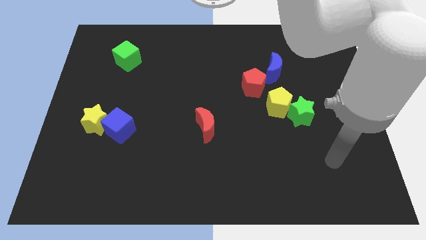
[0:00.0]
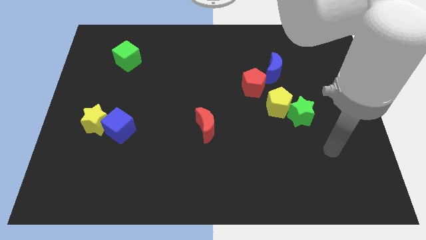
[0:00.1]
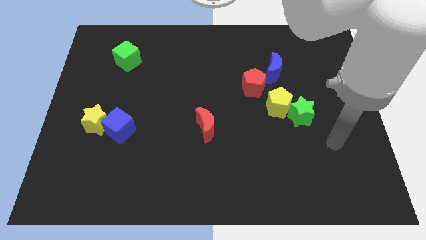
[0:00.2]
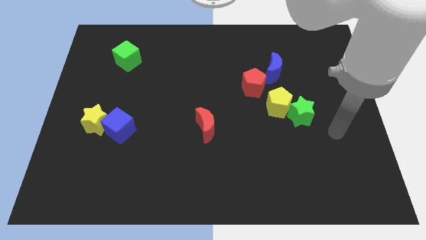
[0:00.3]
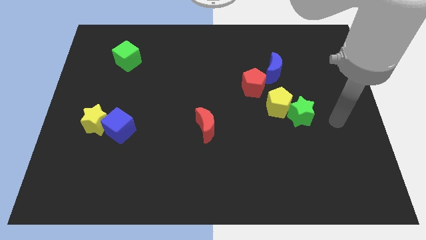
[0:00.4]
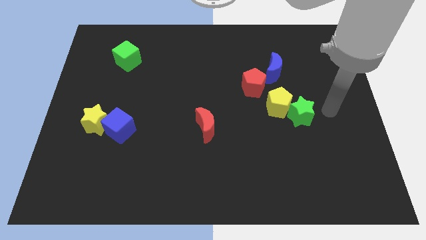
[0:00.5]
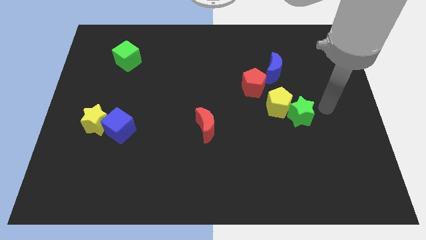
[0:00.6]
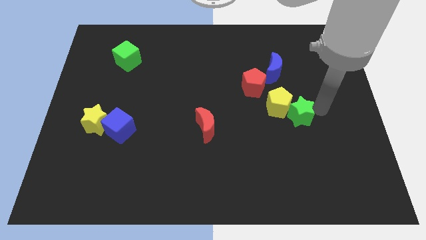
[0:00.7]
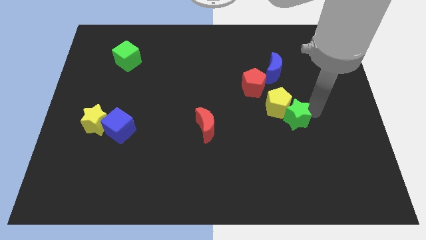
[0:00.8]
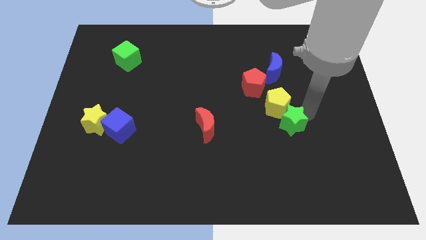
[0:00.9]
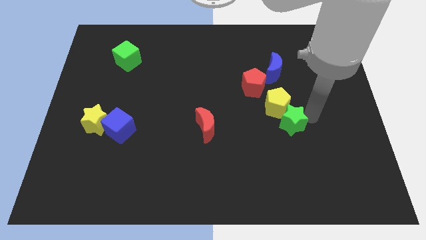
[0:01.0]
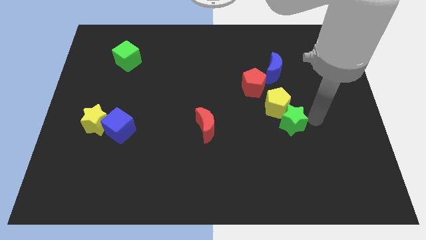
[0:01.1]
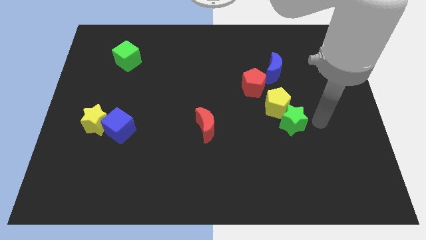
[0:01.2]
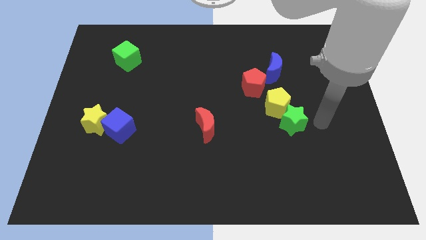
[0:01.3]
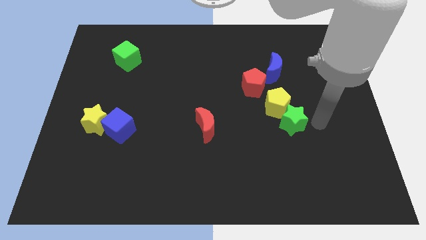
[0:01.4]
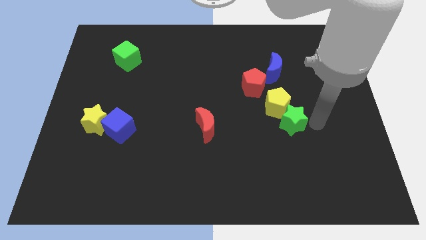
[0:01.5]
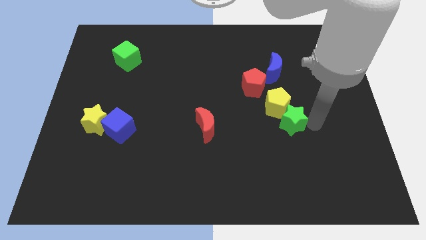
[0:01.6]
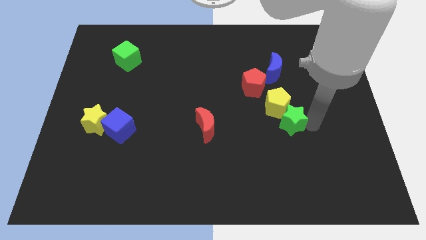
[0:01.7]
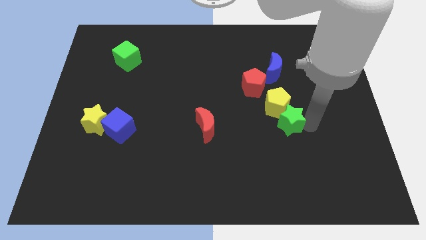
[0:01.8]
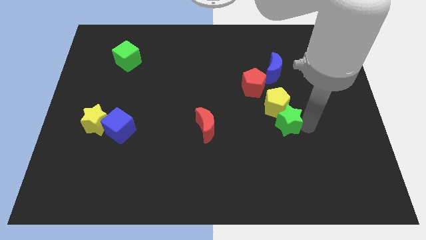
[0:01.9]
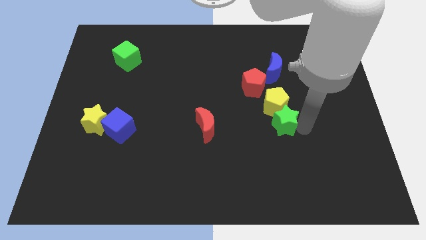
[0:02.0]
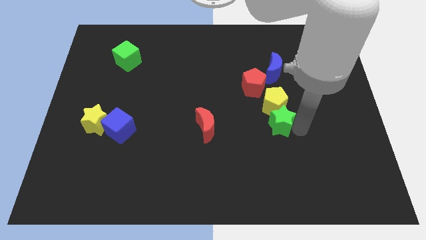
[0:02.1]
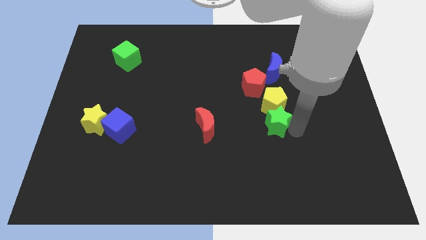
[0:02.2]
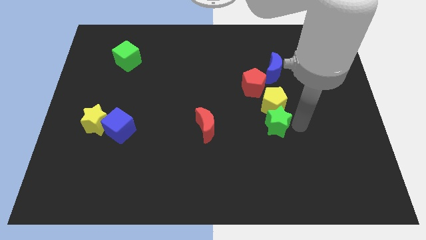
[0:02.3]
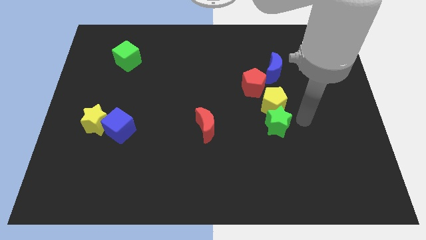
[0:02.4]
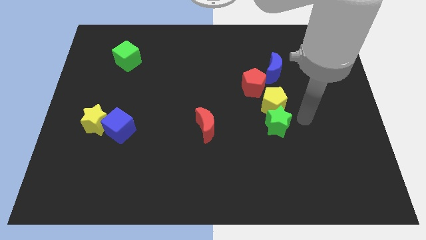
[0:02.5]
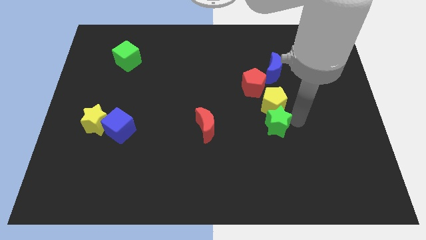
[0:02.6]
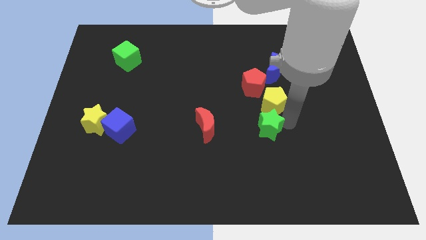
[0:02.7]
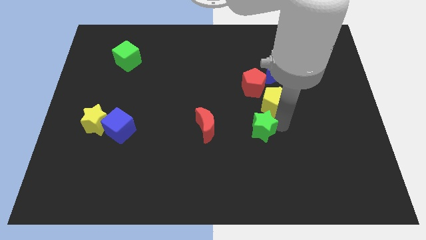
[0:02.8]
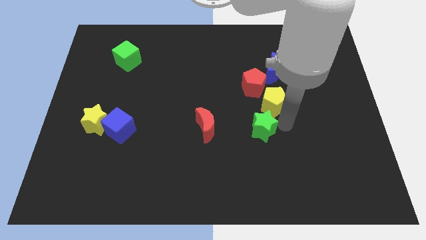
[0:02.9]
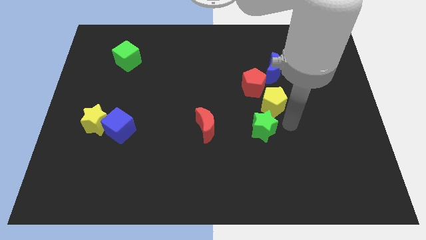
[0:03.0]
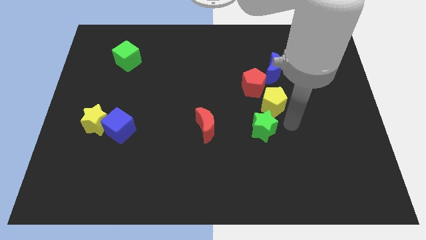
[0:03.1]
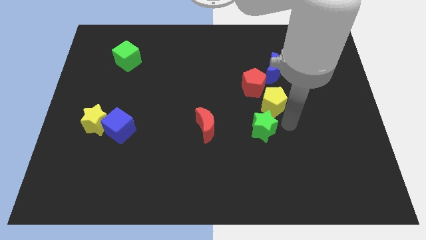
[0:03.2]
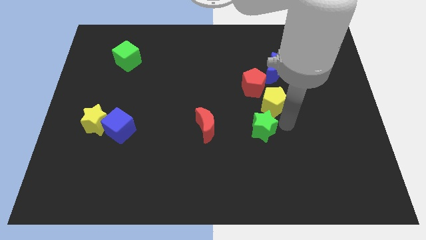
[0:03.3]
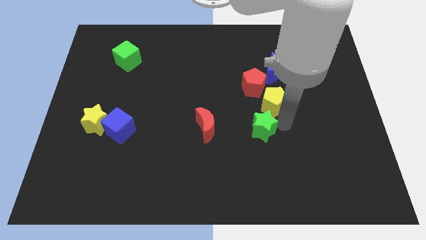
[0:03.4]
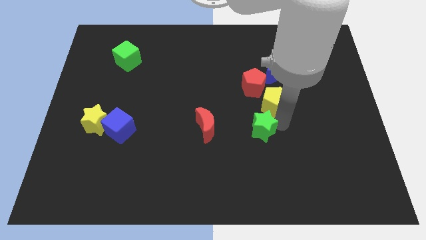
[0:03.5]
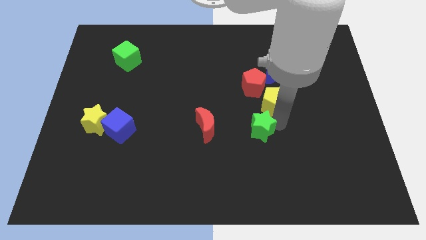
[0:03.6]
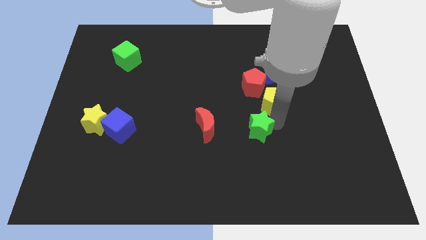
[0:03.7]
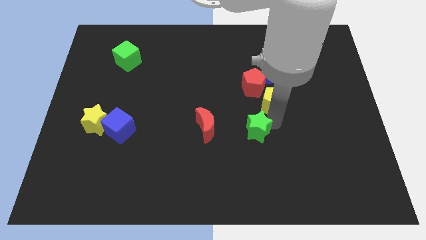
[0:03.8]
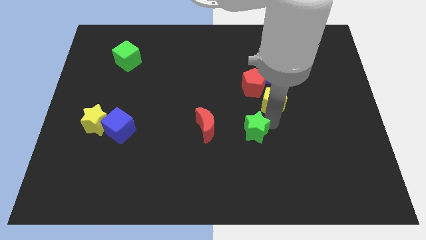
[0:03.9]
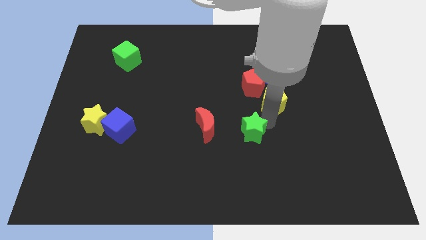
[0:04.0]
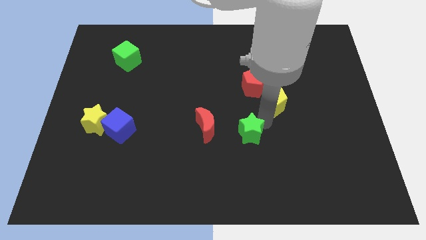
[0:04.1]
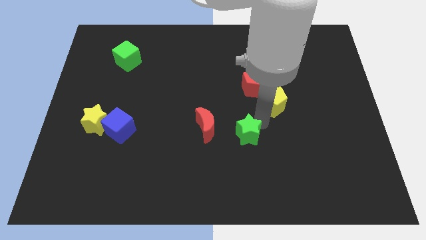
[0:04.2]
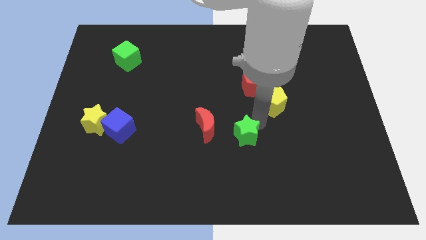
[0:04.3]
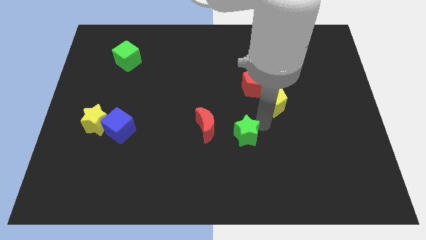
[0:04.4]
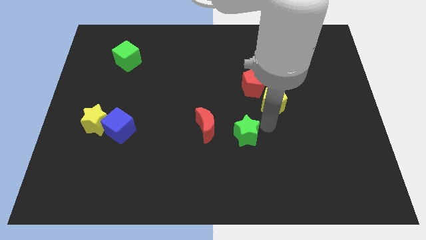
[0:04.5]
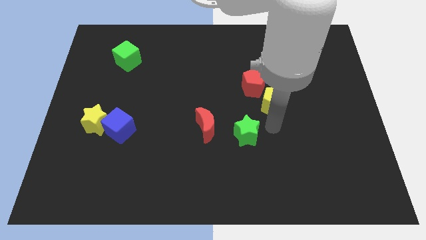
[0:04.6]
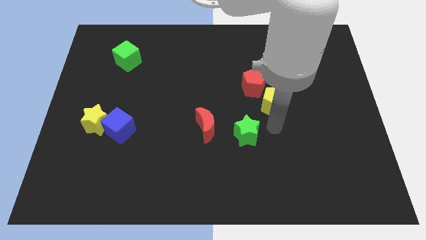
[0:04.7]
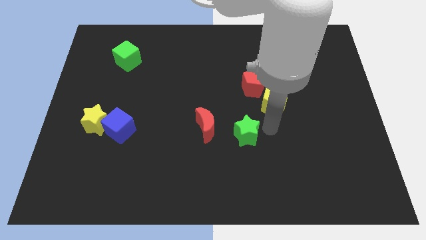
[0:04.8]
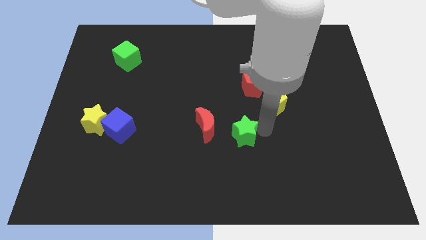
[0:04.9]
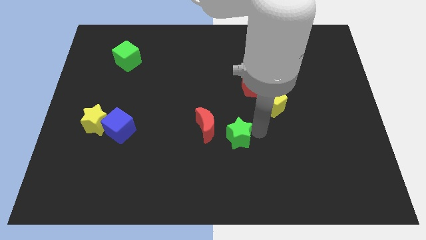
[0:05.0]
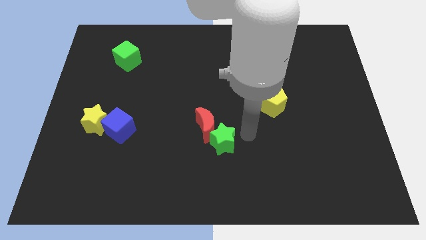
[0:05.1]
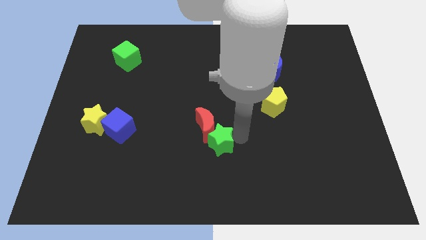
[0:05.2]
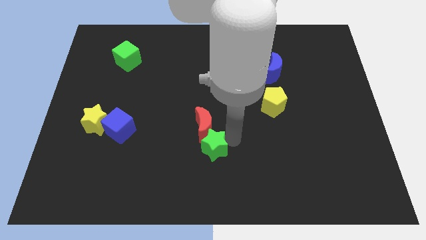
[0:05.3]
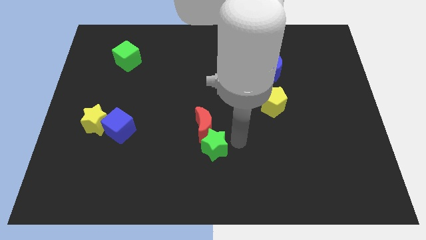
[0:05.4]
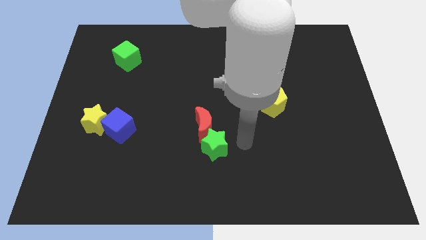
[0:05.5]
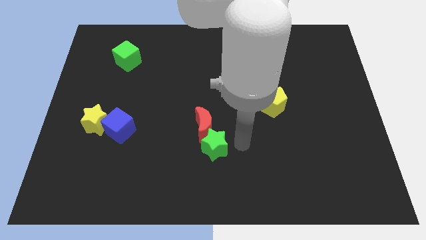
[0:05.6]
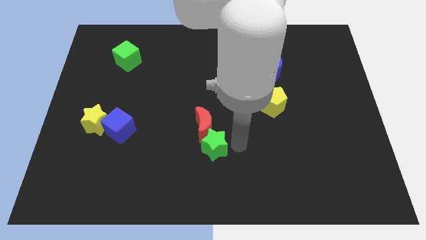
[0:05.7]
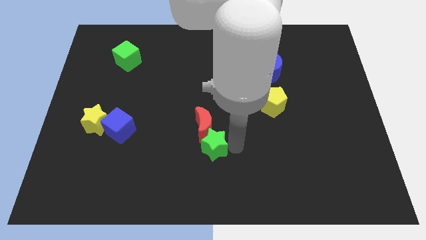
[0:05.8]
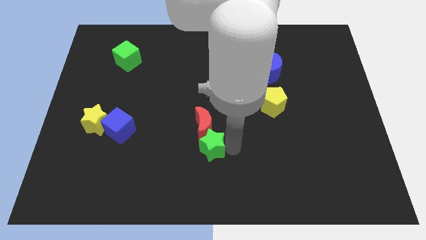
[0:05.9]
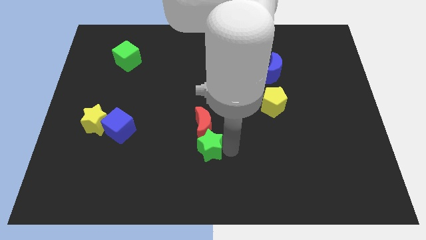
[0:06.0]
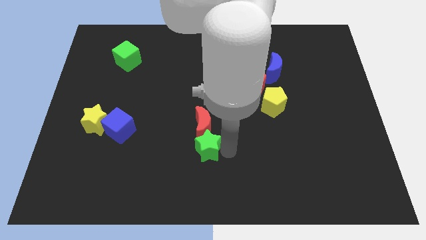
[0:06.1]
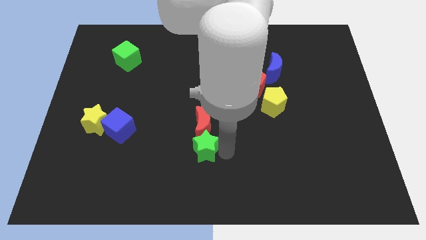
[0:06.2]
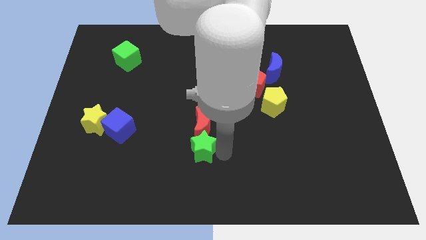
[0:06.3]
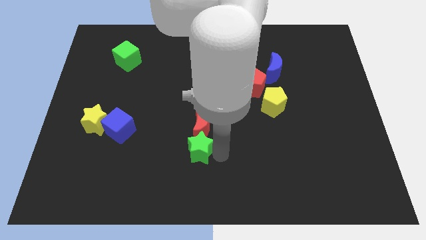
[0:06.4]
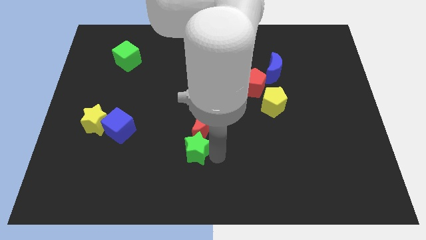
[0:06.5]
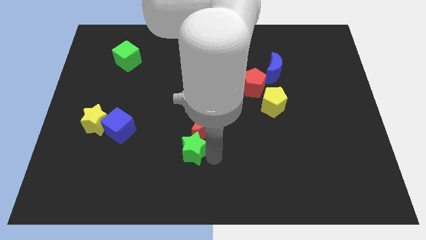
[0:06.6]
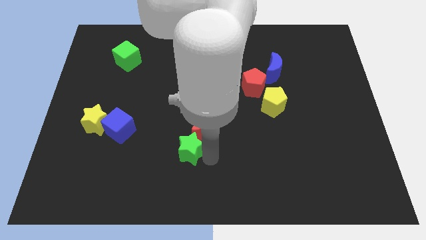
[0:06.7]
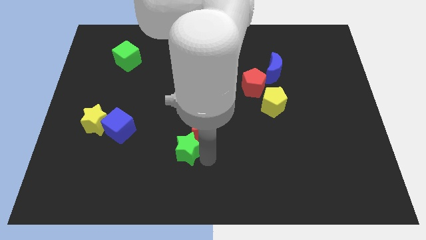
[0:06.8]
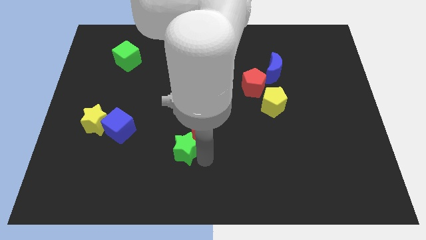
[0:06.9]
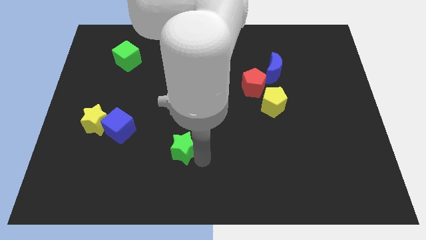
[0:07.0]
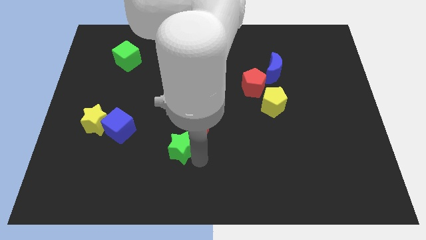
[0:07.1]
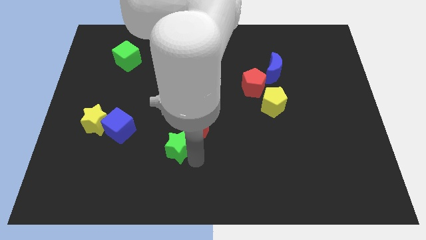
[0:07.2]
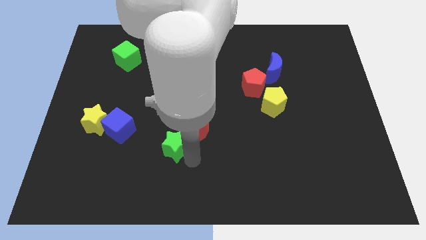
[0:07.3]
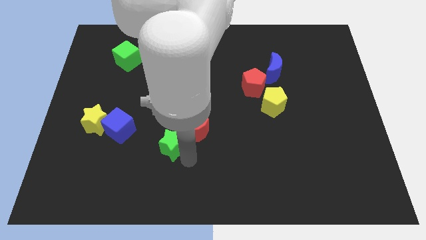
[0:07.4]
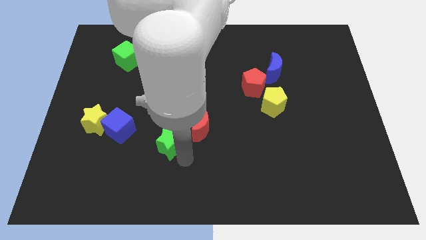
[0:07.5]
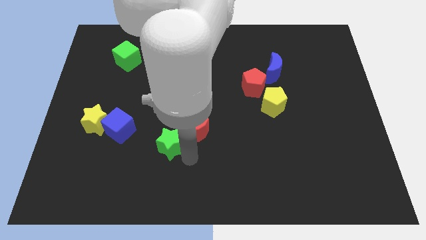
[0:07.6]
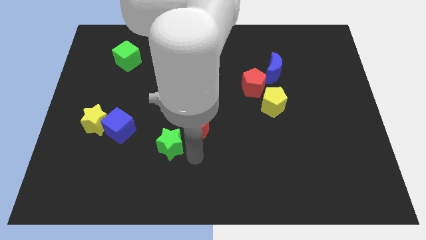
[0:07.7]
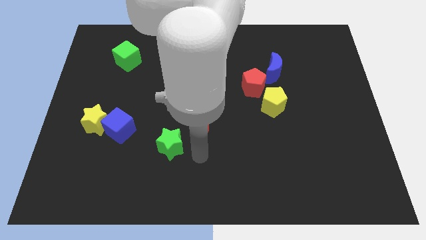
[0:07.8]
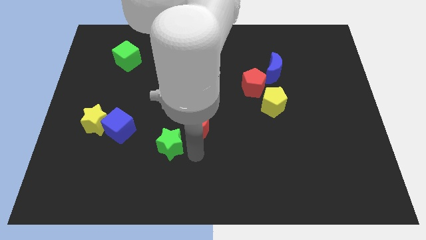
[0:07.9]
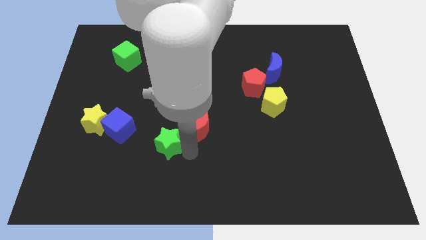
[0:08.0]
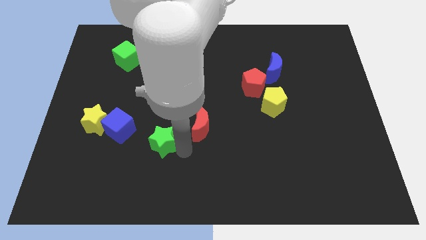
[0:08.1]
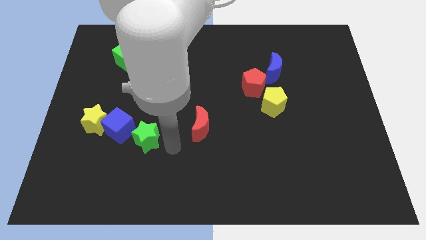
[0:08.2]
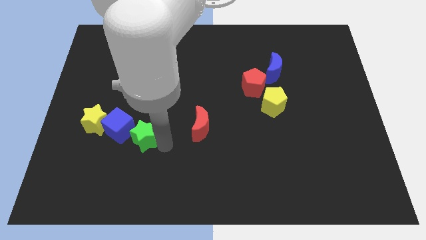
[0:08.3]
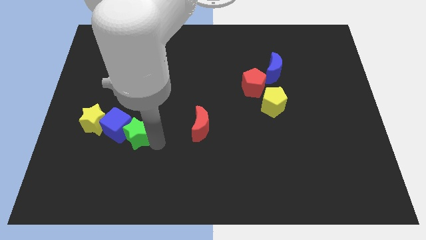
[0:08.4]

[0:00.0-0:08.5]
put the green star towards the blue cube
